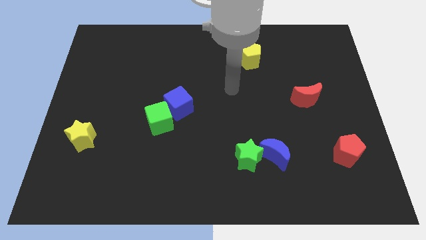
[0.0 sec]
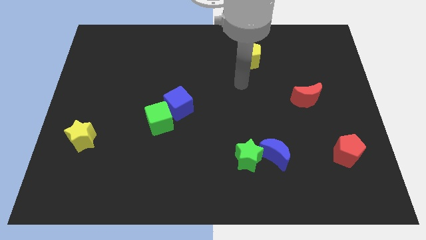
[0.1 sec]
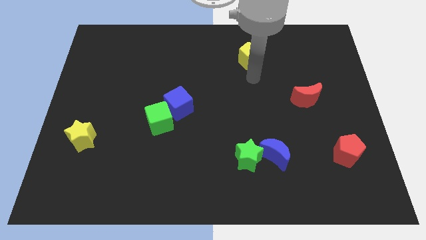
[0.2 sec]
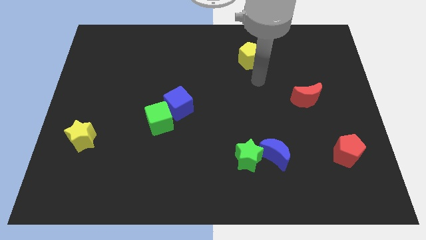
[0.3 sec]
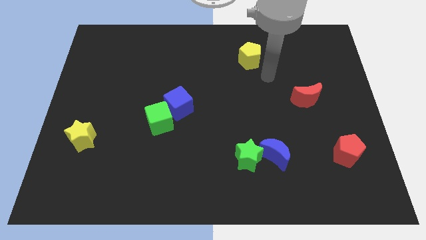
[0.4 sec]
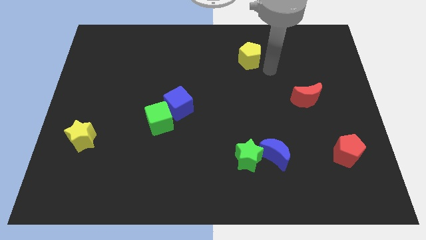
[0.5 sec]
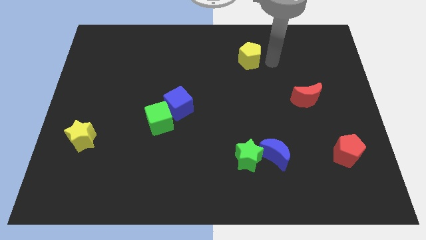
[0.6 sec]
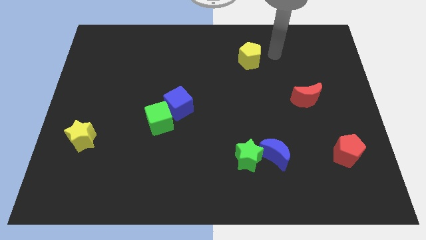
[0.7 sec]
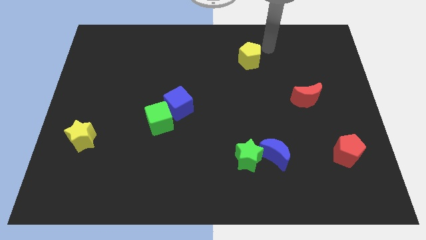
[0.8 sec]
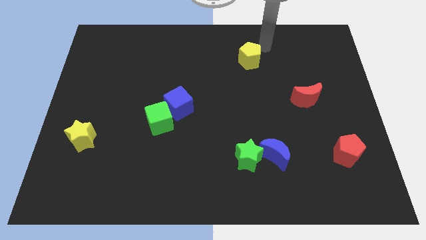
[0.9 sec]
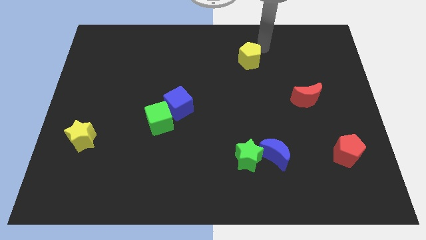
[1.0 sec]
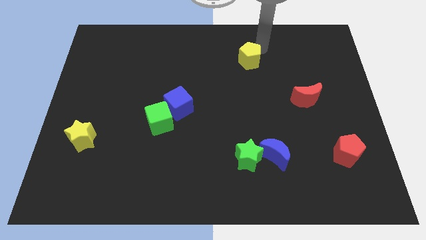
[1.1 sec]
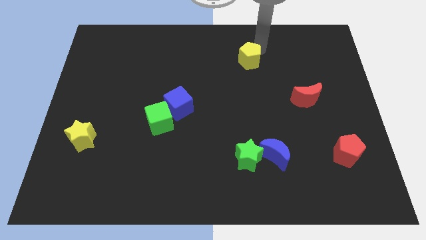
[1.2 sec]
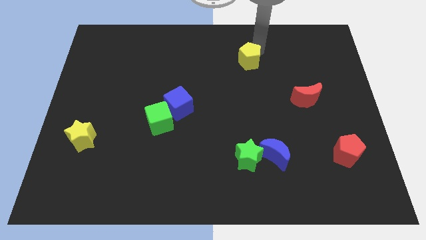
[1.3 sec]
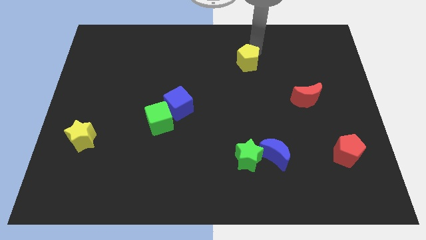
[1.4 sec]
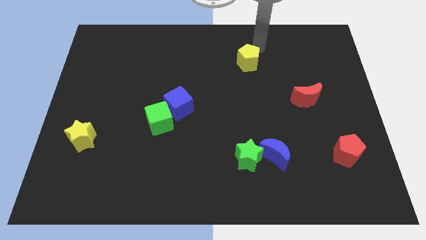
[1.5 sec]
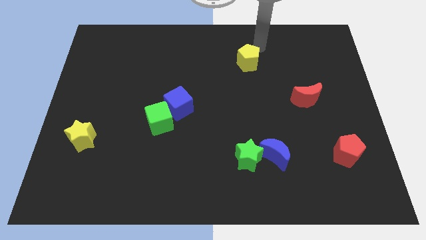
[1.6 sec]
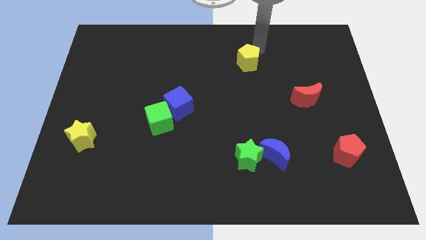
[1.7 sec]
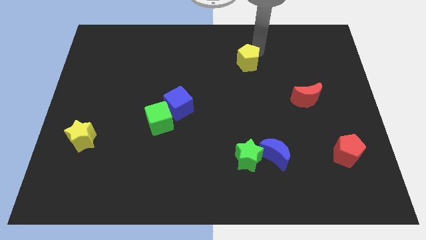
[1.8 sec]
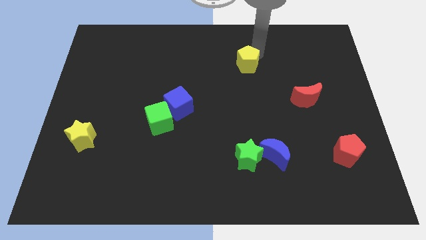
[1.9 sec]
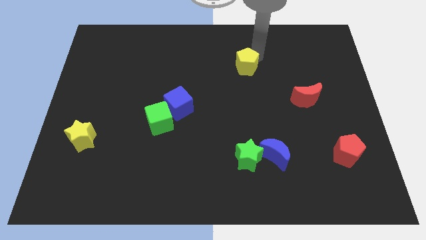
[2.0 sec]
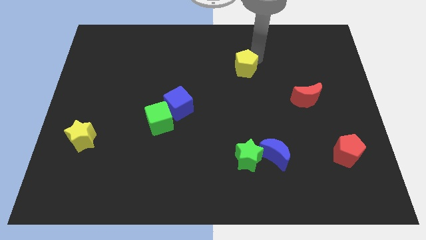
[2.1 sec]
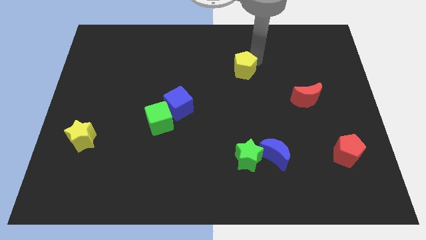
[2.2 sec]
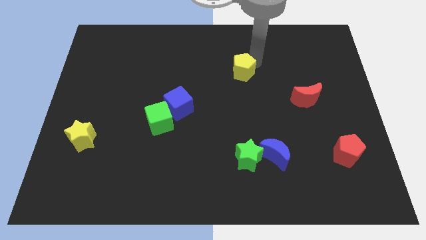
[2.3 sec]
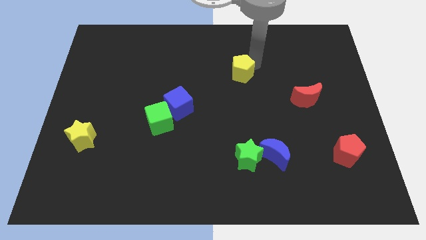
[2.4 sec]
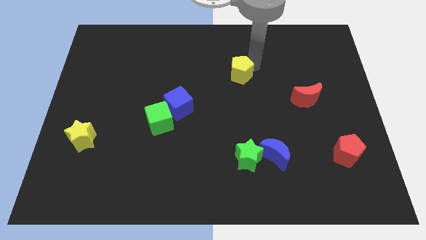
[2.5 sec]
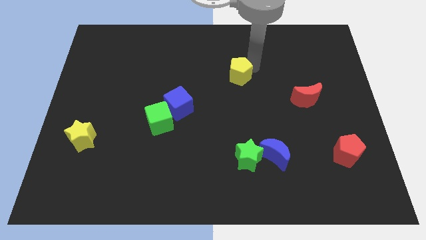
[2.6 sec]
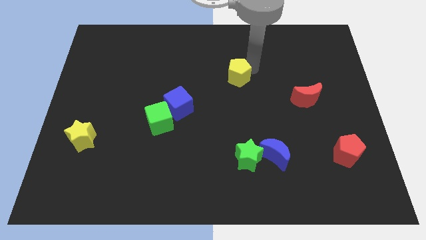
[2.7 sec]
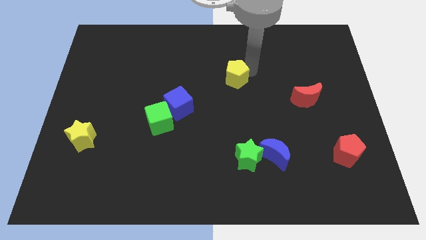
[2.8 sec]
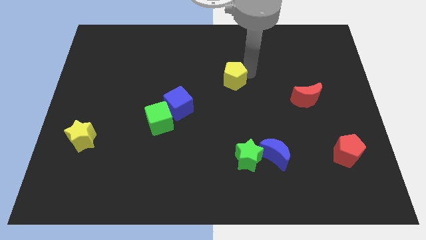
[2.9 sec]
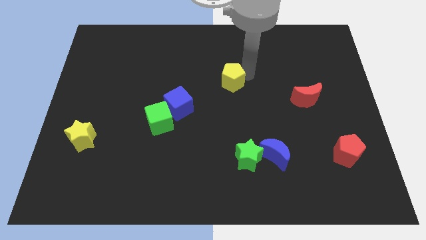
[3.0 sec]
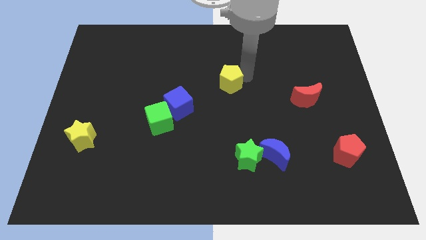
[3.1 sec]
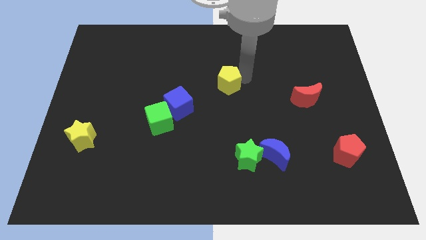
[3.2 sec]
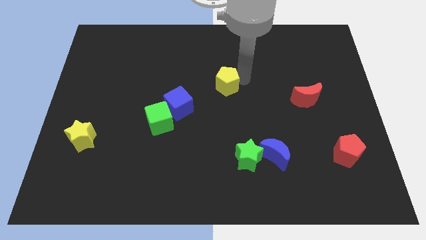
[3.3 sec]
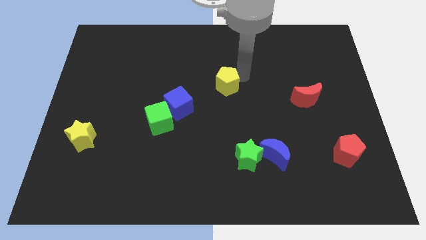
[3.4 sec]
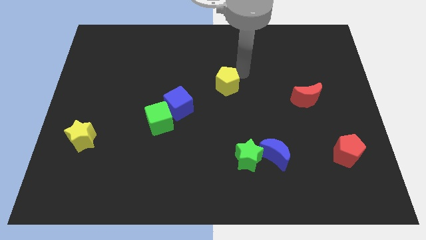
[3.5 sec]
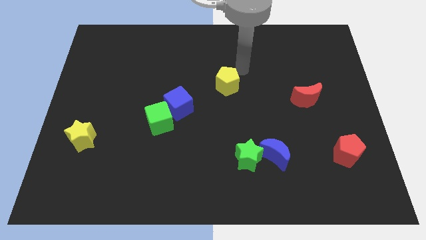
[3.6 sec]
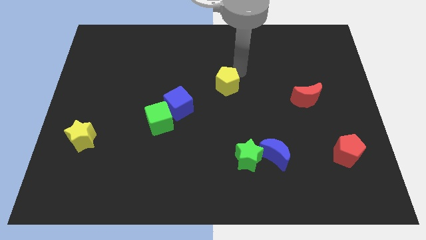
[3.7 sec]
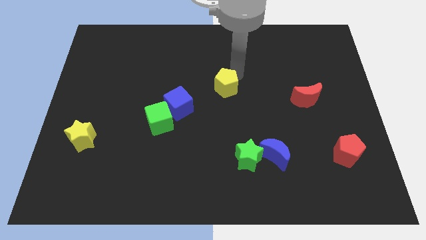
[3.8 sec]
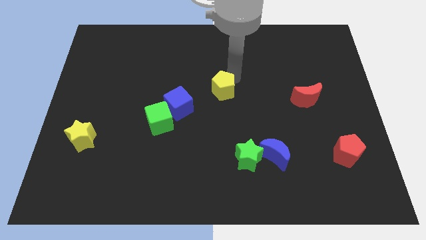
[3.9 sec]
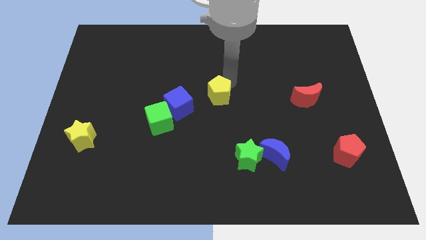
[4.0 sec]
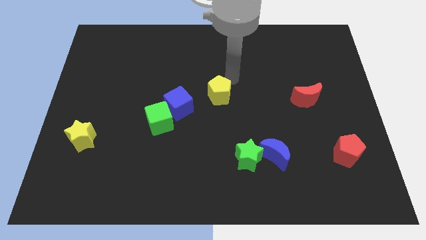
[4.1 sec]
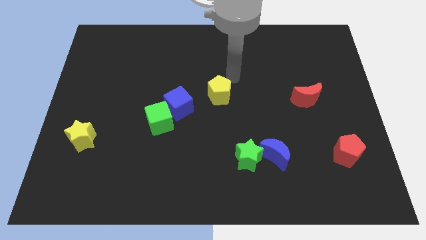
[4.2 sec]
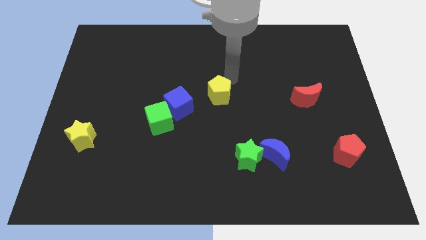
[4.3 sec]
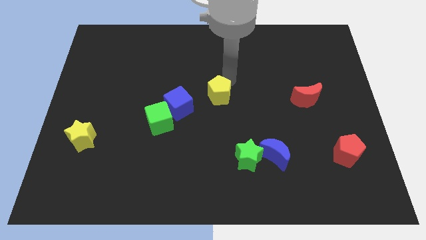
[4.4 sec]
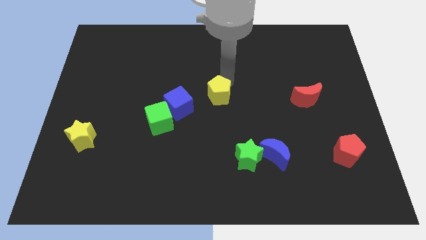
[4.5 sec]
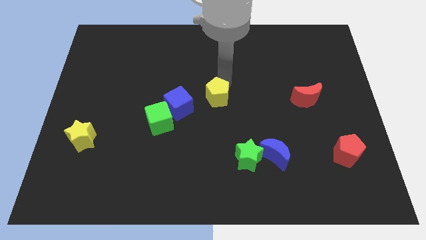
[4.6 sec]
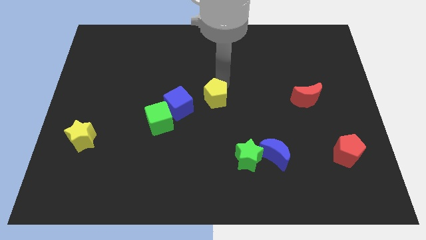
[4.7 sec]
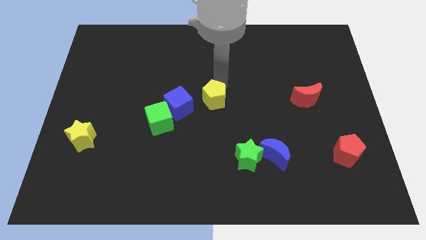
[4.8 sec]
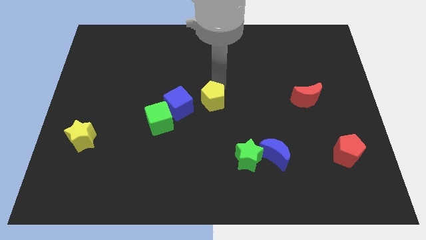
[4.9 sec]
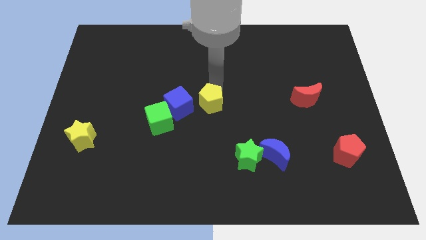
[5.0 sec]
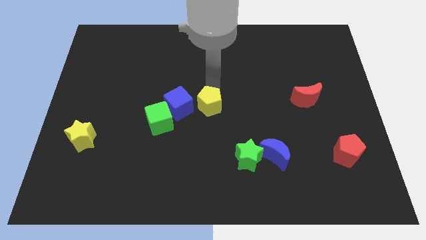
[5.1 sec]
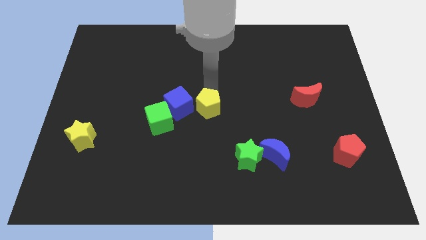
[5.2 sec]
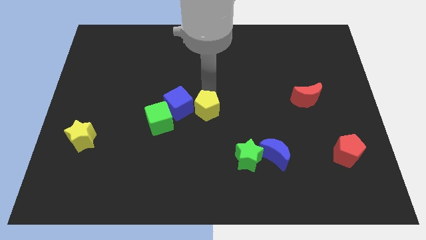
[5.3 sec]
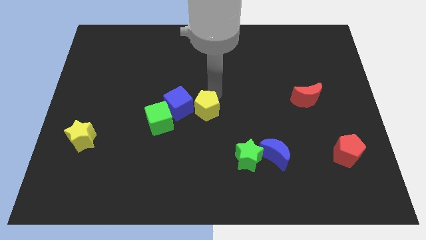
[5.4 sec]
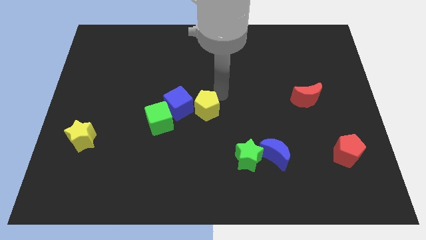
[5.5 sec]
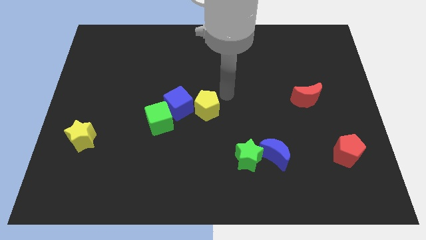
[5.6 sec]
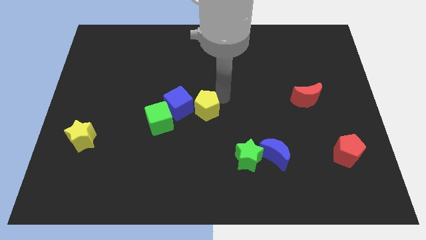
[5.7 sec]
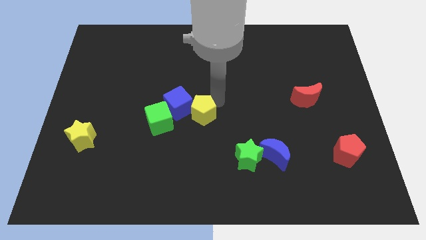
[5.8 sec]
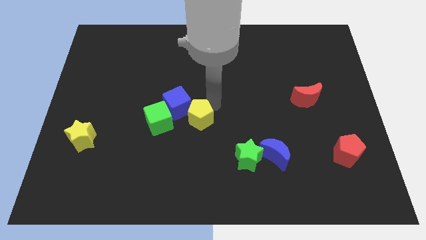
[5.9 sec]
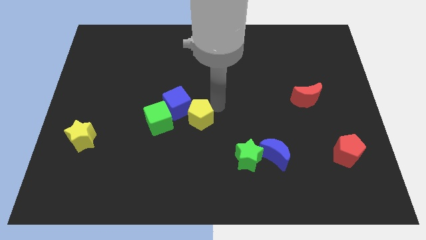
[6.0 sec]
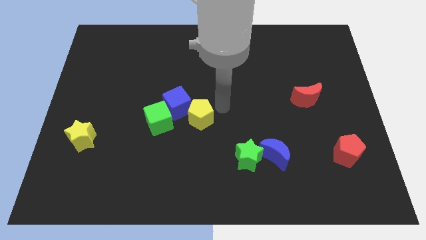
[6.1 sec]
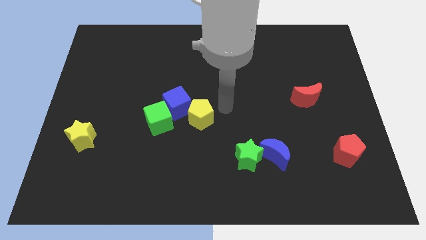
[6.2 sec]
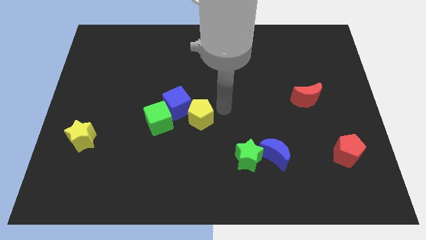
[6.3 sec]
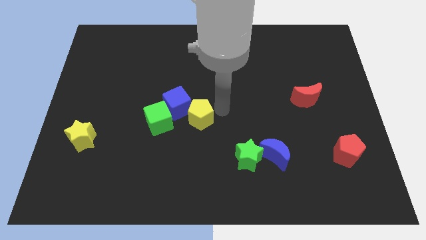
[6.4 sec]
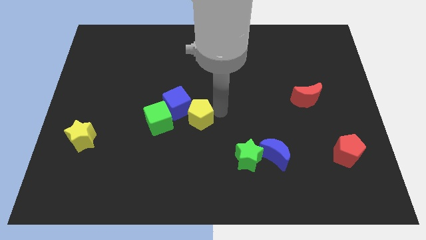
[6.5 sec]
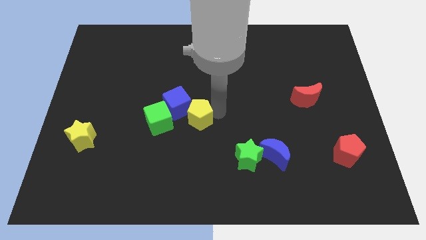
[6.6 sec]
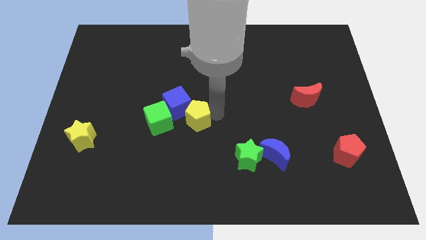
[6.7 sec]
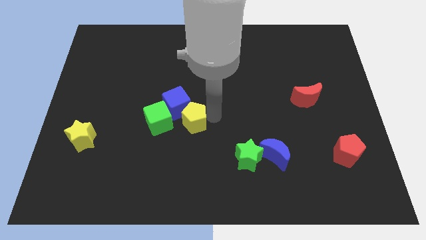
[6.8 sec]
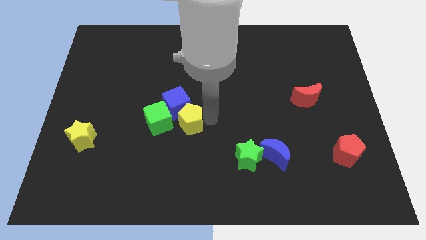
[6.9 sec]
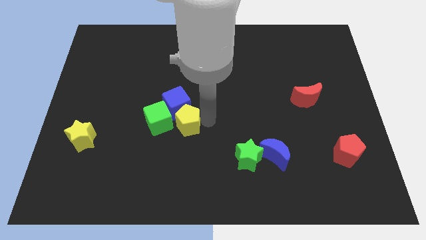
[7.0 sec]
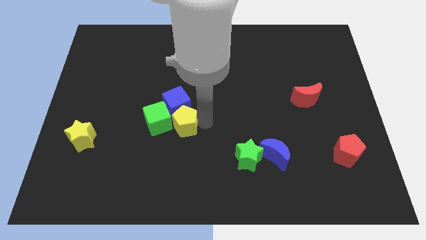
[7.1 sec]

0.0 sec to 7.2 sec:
put the yellow pentagon next to the green cube

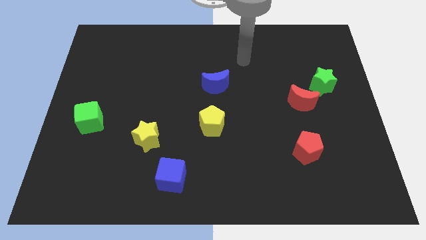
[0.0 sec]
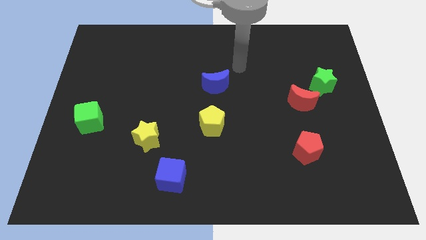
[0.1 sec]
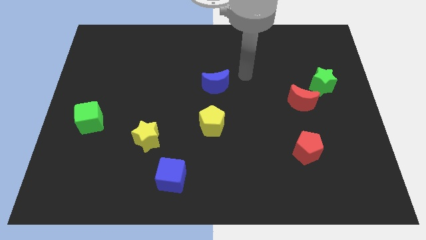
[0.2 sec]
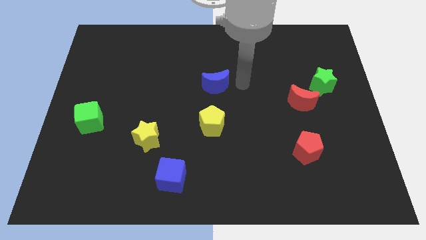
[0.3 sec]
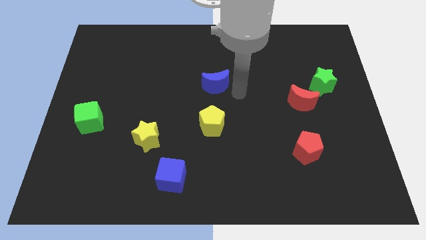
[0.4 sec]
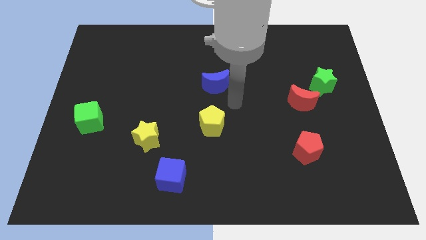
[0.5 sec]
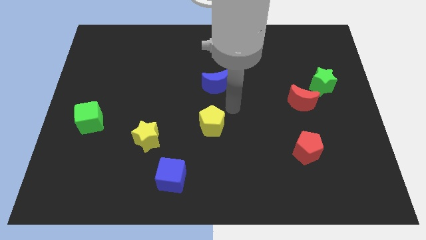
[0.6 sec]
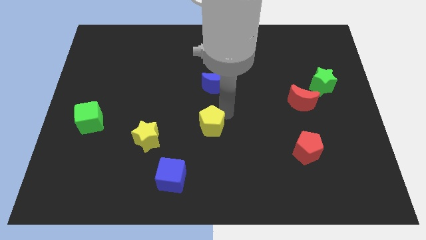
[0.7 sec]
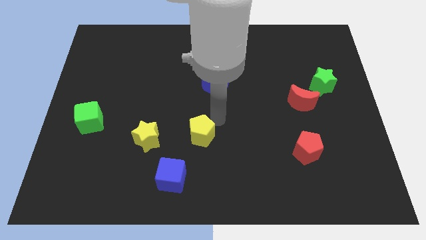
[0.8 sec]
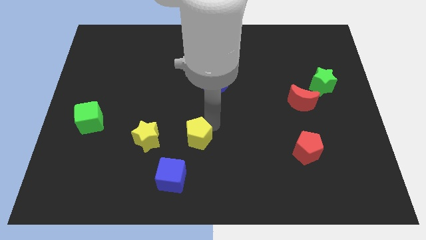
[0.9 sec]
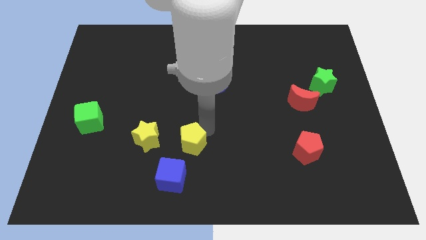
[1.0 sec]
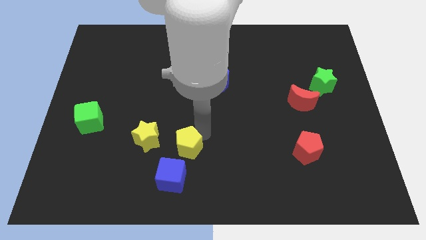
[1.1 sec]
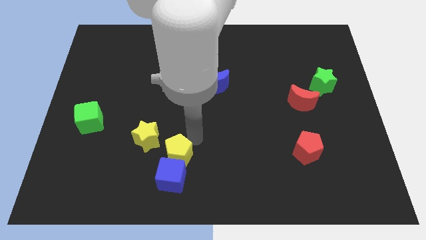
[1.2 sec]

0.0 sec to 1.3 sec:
slide the yellow pentagon to the blue cube
